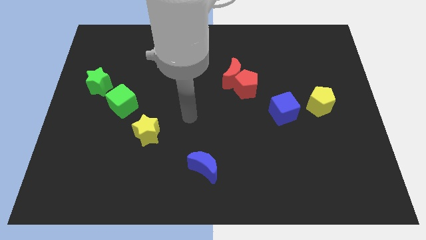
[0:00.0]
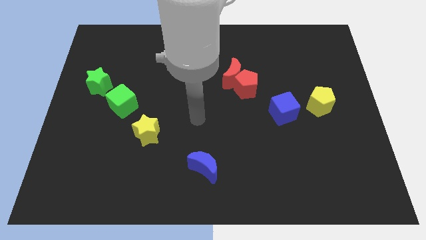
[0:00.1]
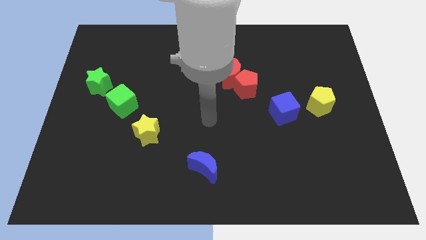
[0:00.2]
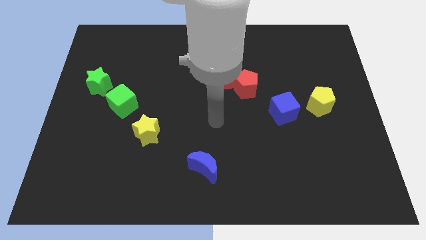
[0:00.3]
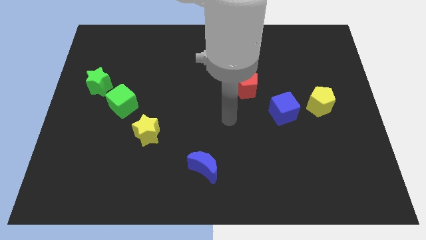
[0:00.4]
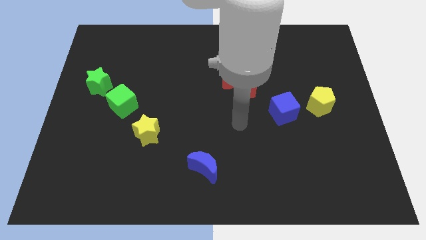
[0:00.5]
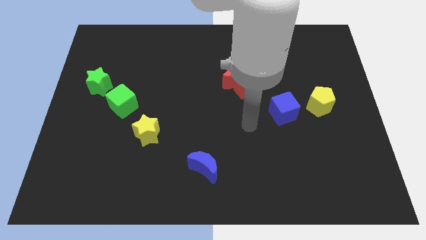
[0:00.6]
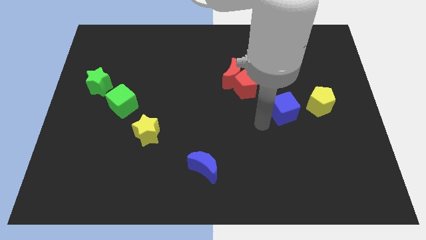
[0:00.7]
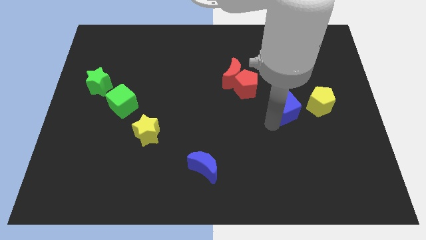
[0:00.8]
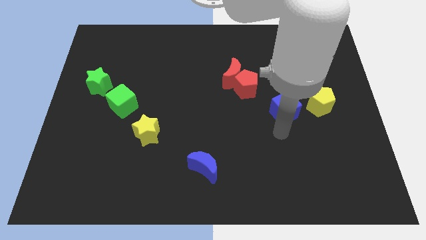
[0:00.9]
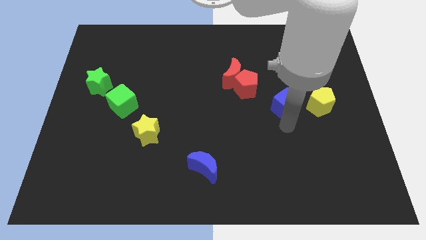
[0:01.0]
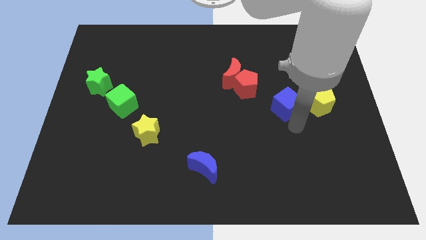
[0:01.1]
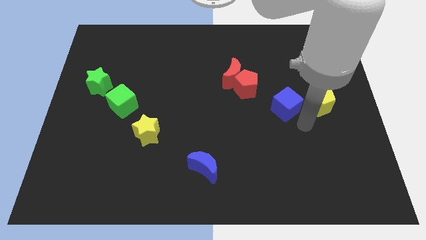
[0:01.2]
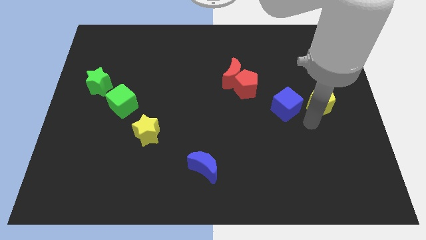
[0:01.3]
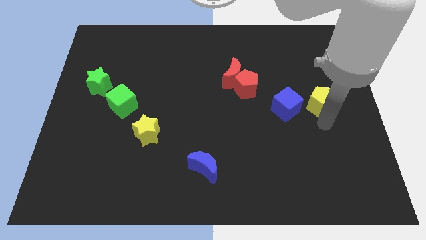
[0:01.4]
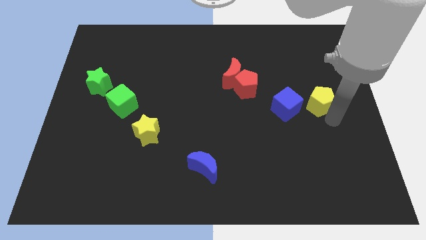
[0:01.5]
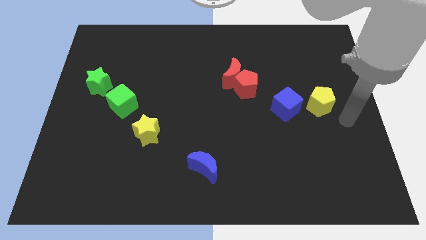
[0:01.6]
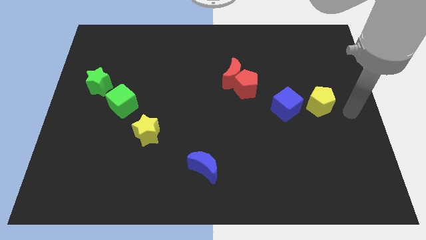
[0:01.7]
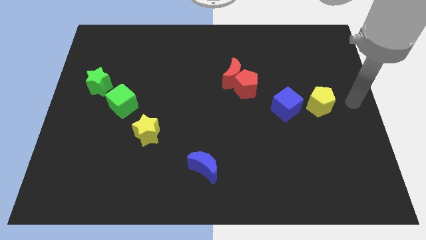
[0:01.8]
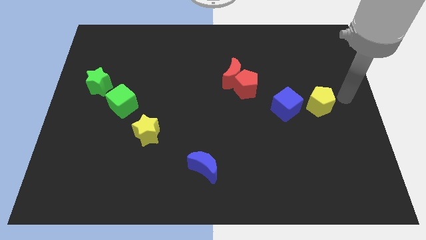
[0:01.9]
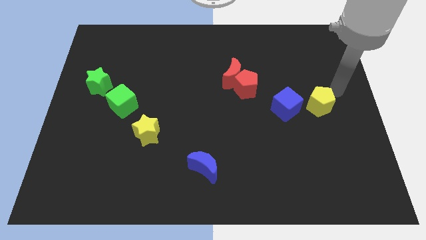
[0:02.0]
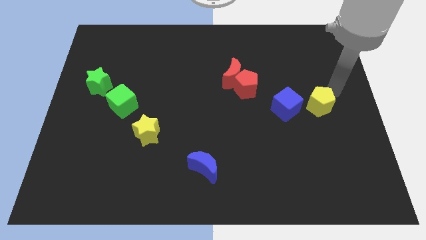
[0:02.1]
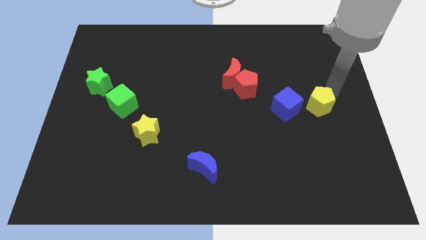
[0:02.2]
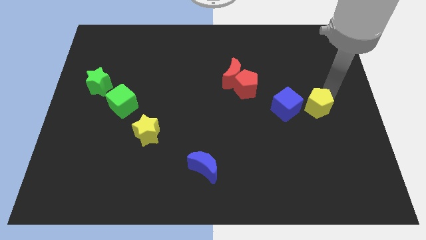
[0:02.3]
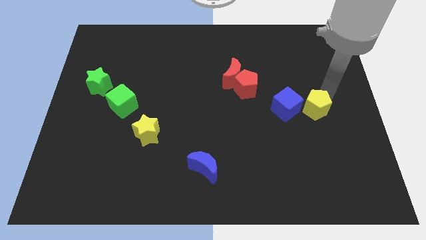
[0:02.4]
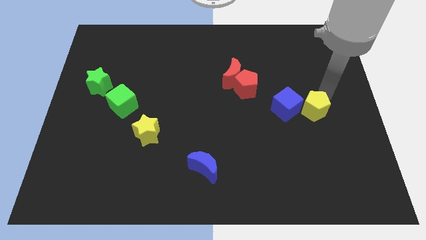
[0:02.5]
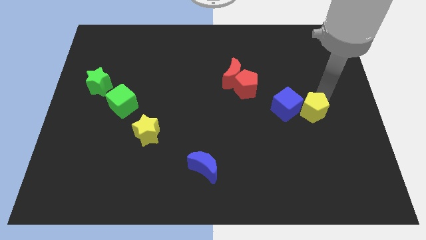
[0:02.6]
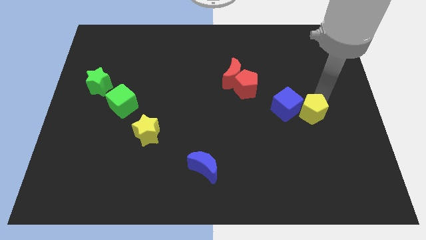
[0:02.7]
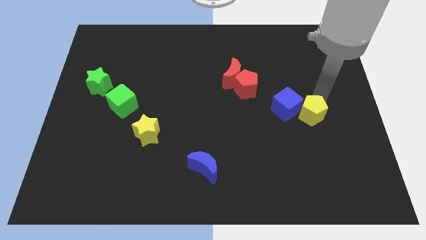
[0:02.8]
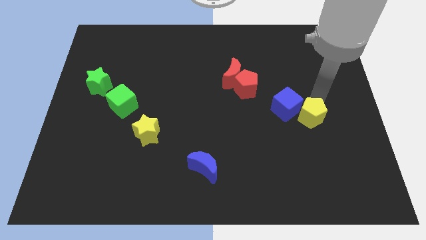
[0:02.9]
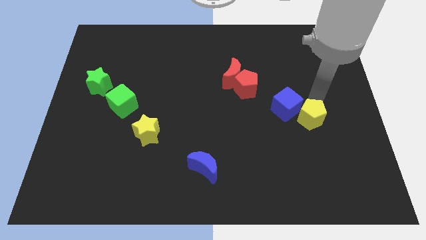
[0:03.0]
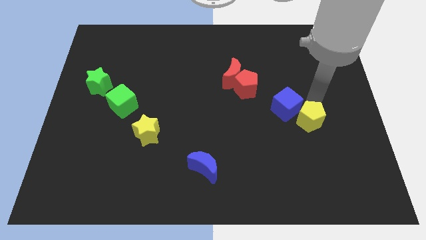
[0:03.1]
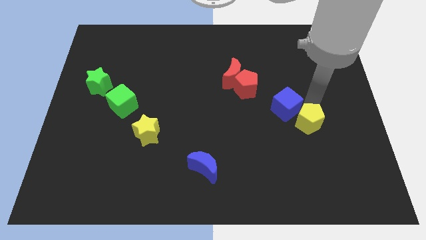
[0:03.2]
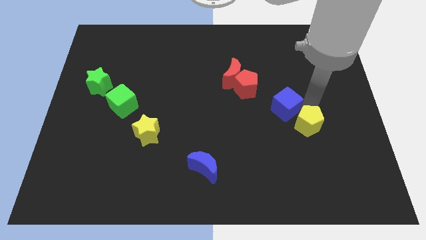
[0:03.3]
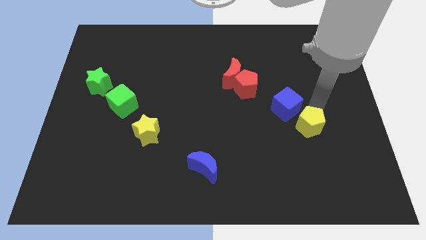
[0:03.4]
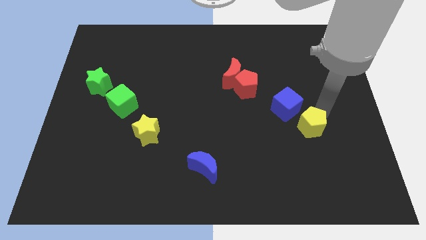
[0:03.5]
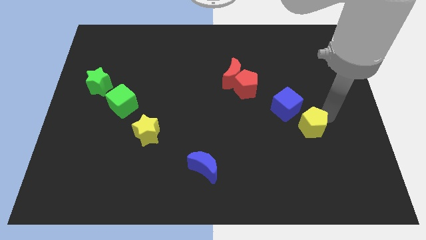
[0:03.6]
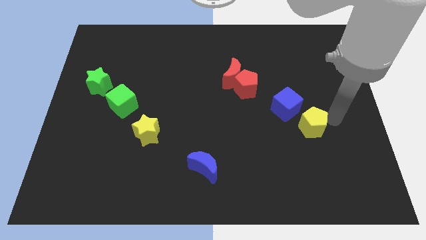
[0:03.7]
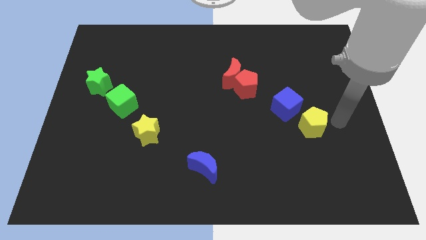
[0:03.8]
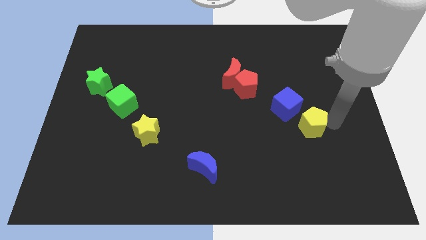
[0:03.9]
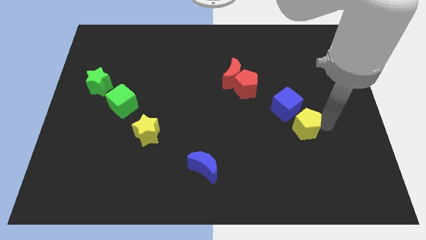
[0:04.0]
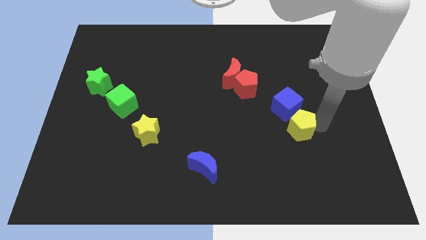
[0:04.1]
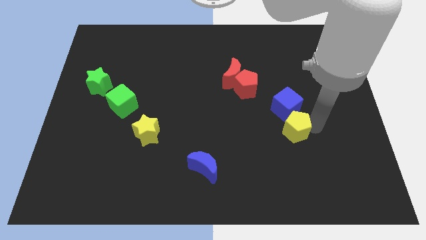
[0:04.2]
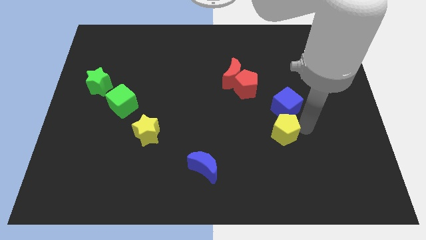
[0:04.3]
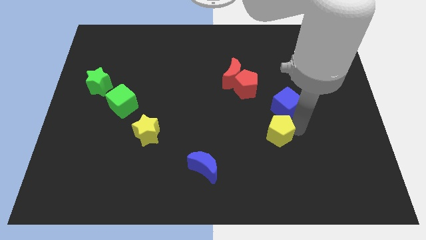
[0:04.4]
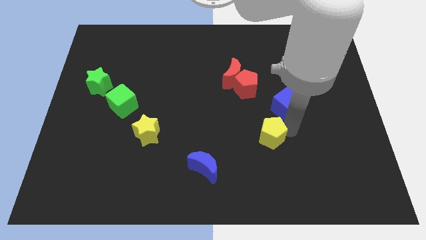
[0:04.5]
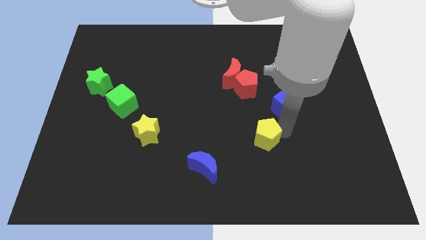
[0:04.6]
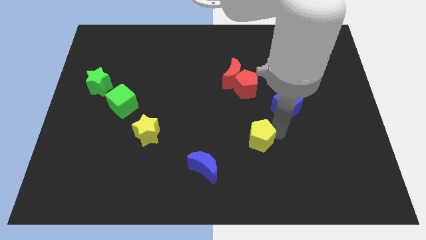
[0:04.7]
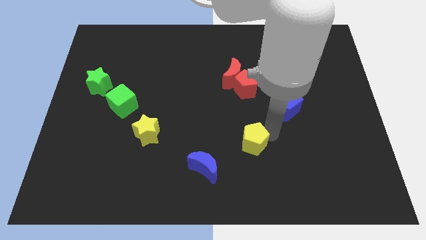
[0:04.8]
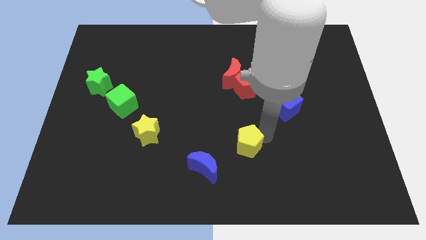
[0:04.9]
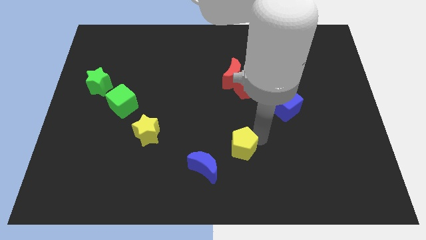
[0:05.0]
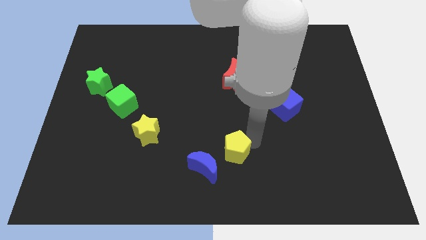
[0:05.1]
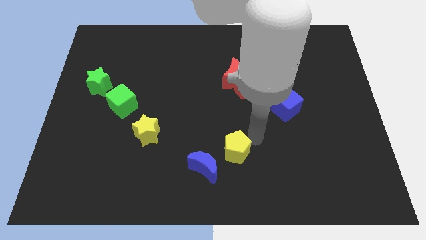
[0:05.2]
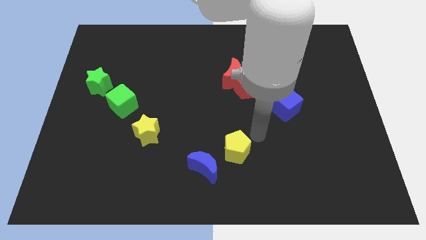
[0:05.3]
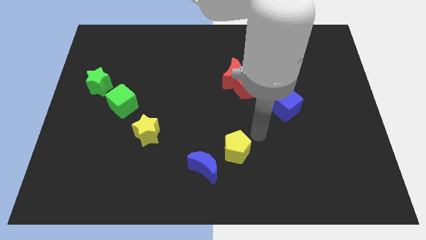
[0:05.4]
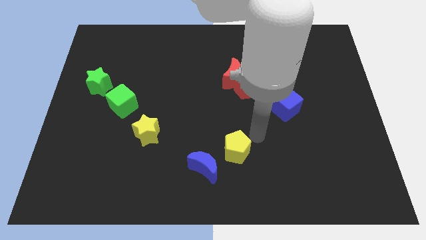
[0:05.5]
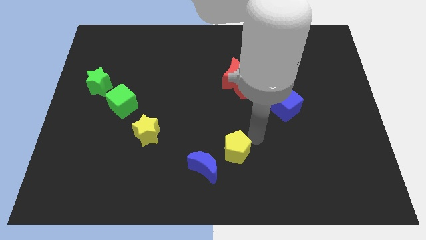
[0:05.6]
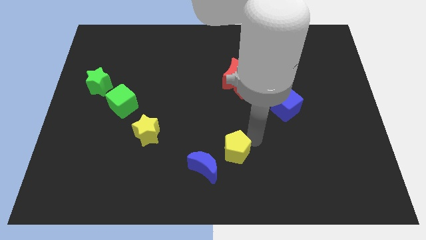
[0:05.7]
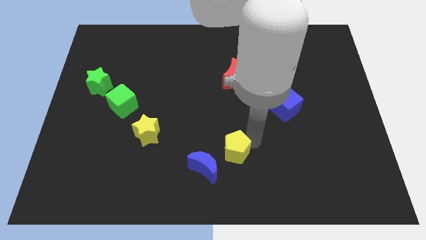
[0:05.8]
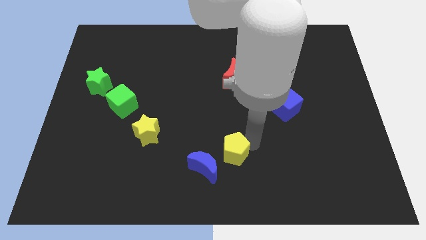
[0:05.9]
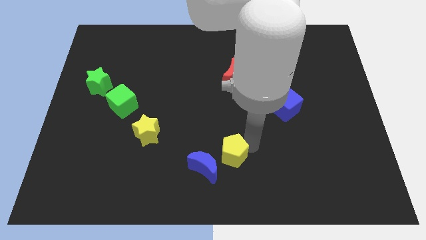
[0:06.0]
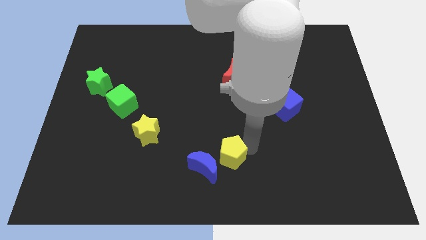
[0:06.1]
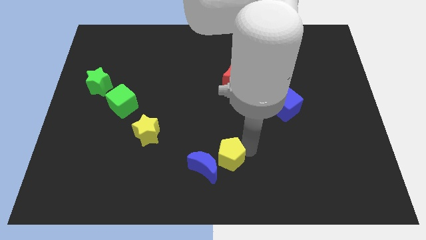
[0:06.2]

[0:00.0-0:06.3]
push the yellow pentagon close to the blue moon
